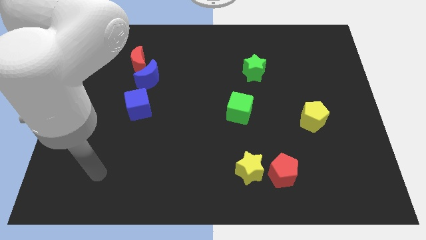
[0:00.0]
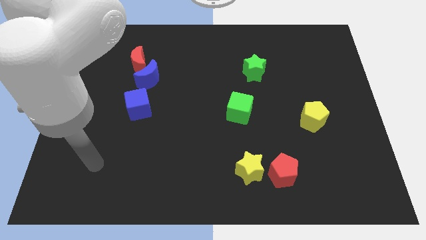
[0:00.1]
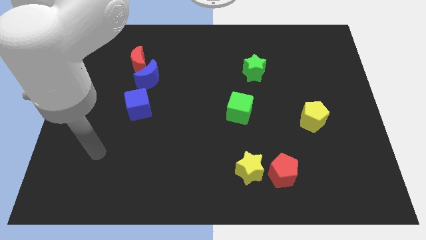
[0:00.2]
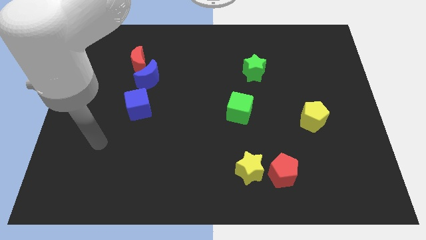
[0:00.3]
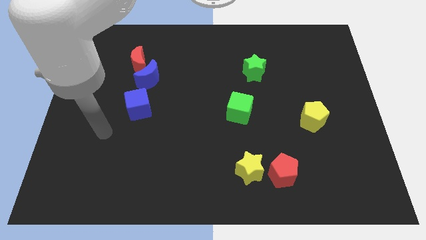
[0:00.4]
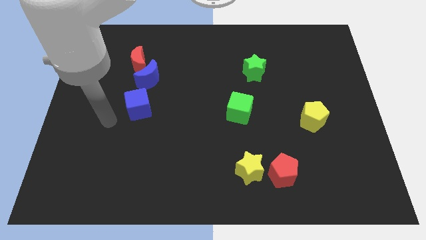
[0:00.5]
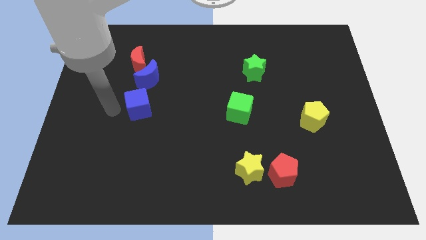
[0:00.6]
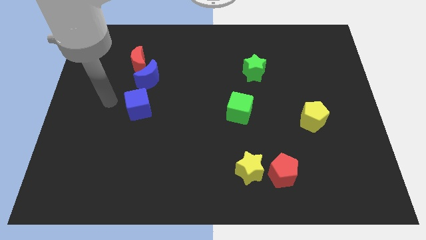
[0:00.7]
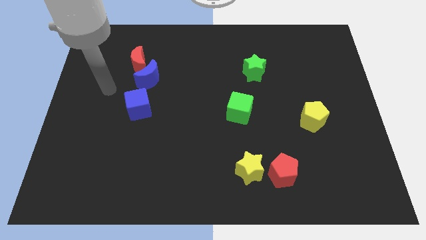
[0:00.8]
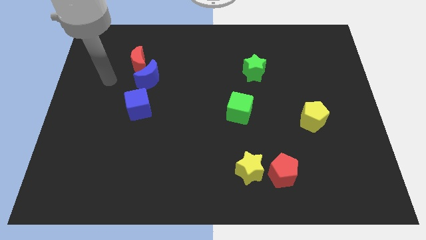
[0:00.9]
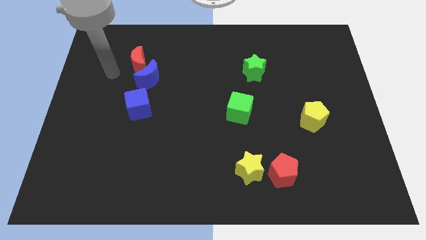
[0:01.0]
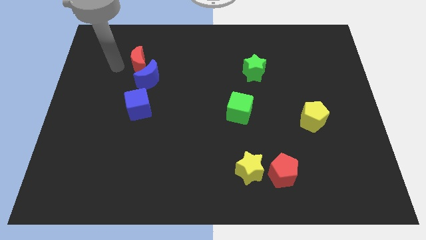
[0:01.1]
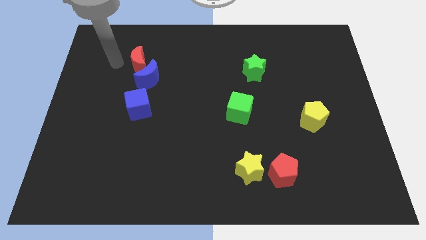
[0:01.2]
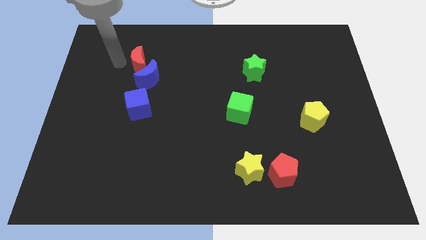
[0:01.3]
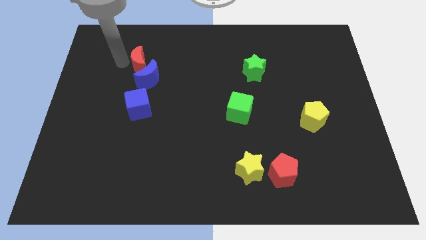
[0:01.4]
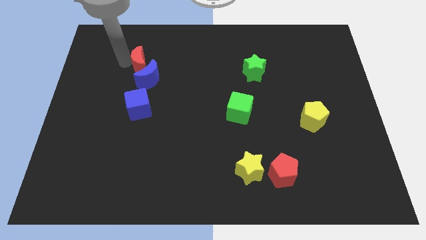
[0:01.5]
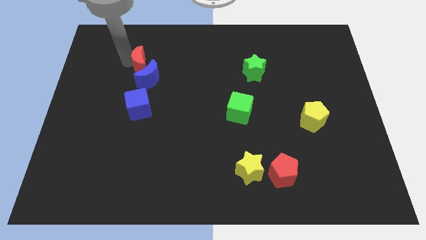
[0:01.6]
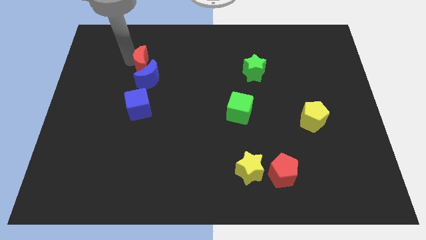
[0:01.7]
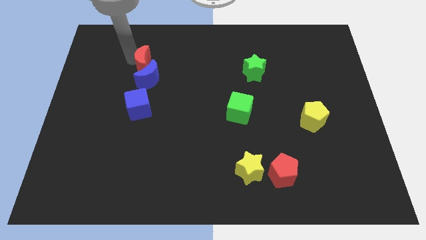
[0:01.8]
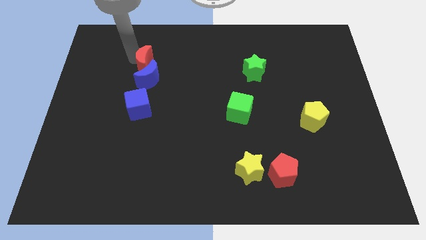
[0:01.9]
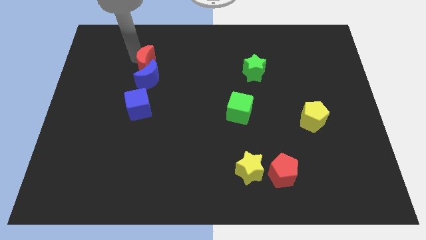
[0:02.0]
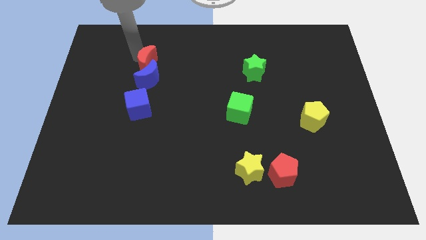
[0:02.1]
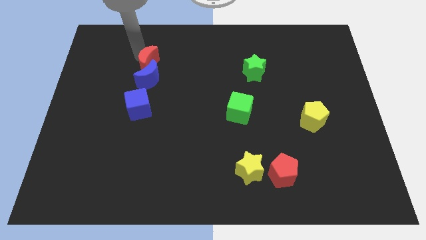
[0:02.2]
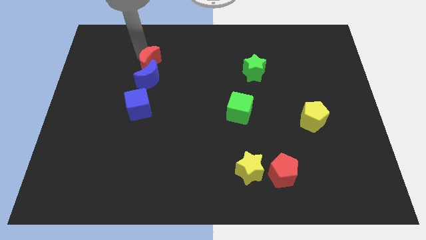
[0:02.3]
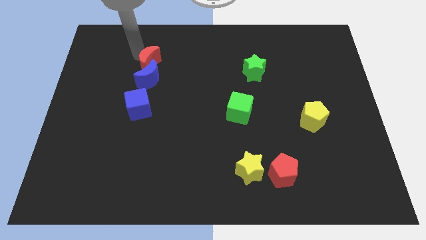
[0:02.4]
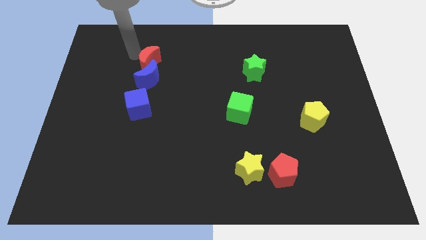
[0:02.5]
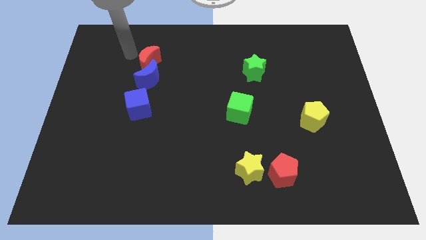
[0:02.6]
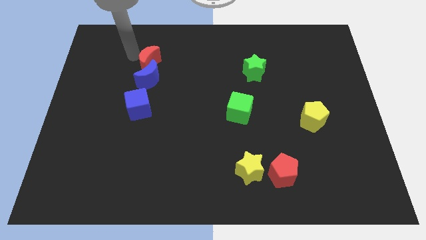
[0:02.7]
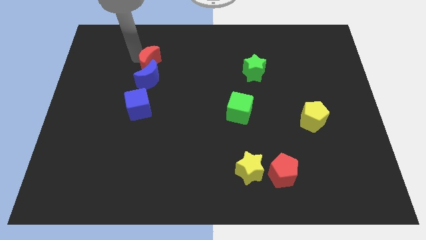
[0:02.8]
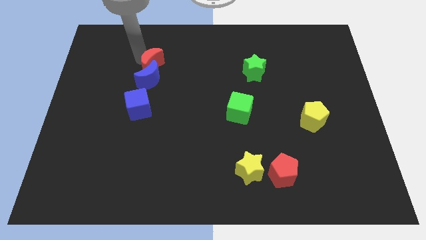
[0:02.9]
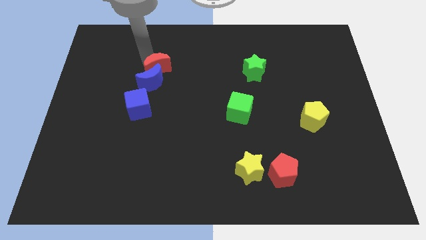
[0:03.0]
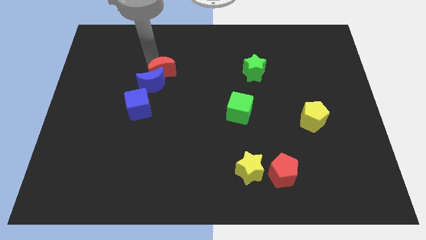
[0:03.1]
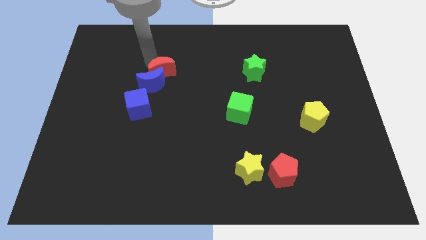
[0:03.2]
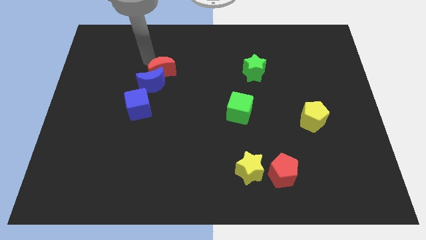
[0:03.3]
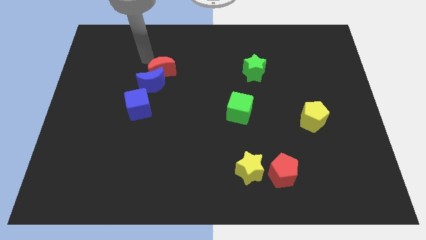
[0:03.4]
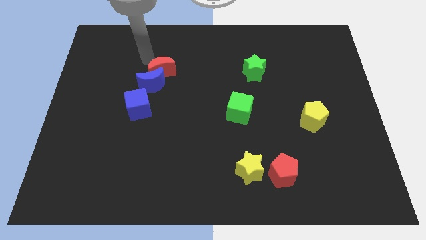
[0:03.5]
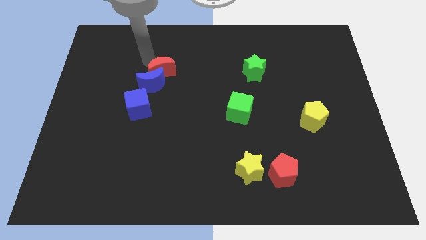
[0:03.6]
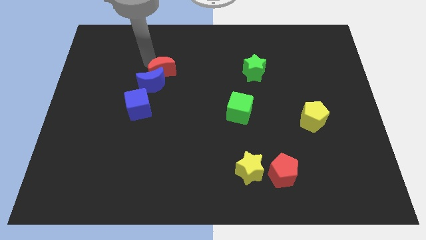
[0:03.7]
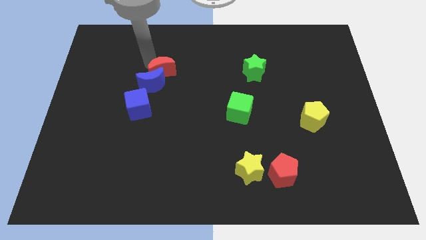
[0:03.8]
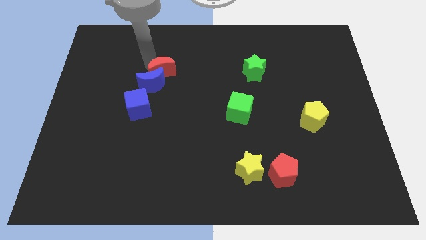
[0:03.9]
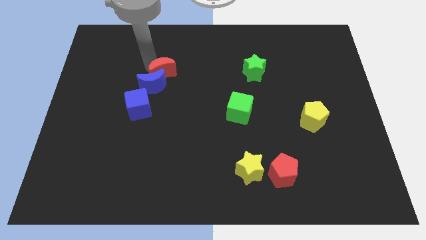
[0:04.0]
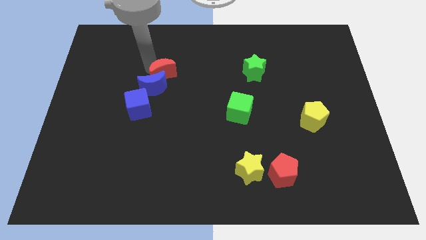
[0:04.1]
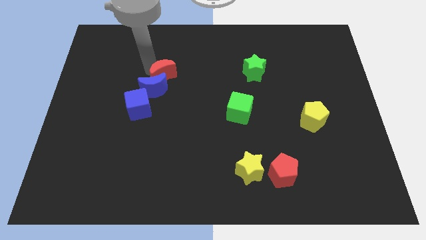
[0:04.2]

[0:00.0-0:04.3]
slide the red moon downwards and then right a little bit

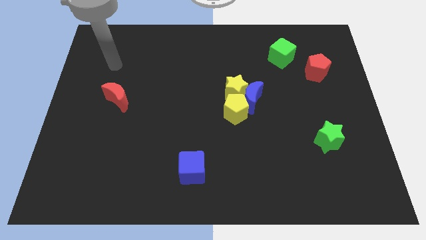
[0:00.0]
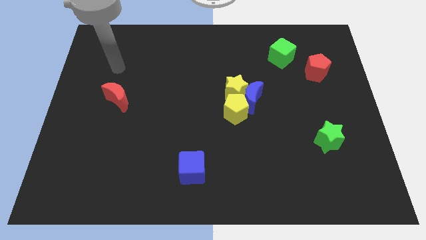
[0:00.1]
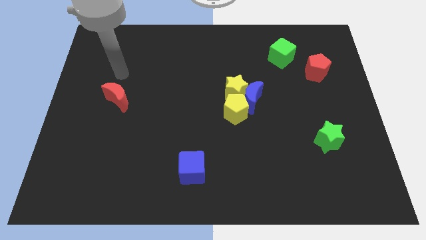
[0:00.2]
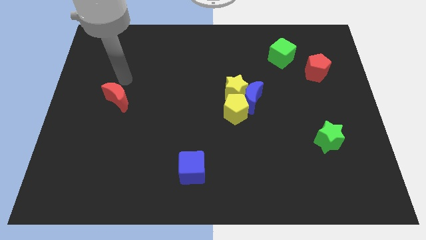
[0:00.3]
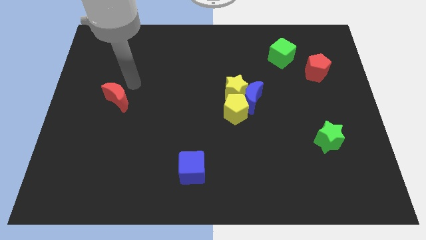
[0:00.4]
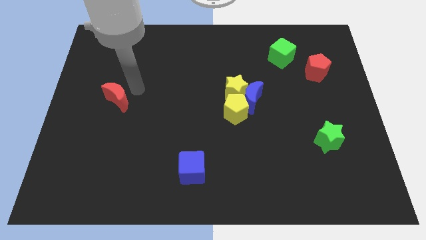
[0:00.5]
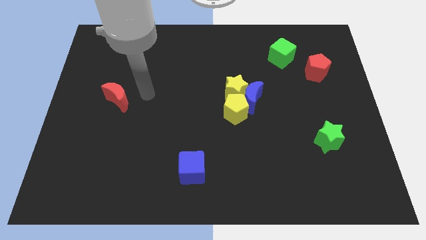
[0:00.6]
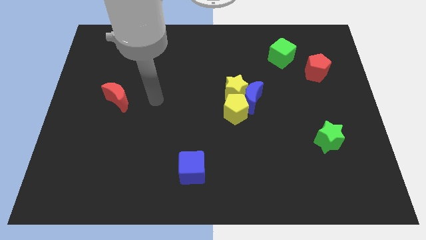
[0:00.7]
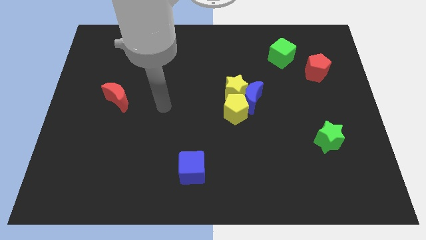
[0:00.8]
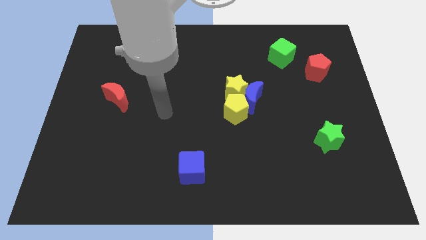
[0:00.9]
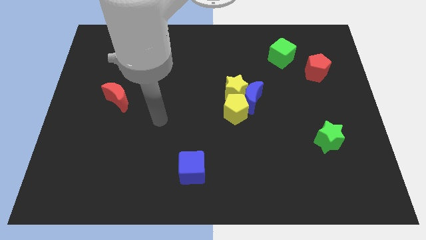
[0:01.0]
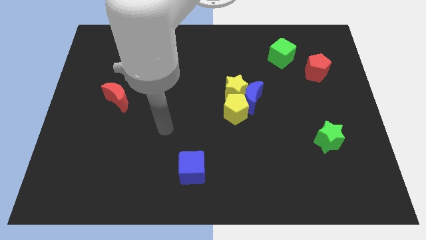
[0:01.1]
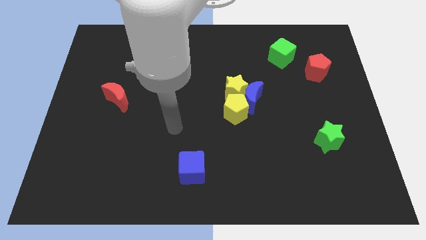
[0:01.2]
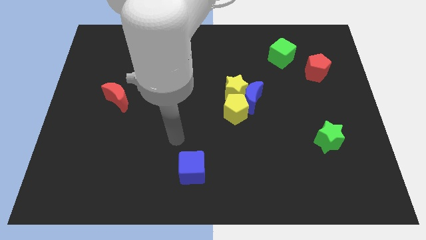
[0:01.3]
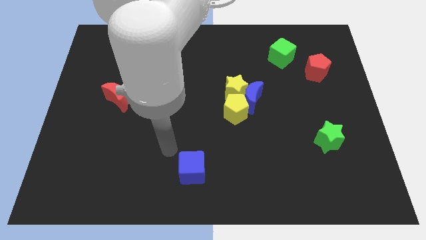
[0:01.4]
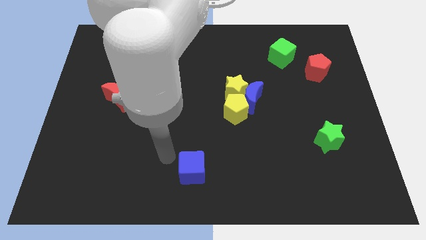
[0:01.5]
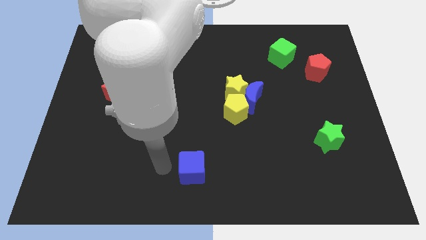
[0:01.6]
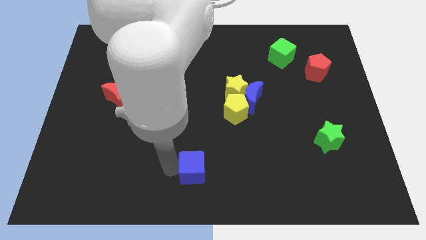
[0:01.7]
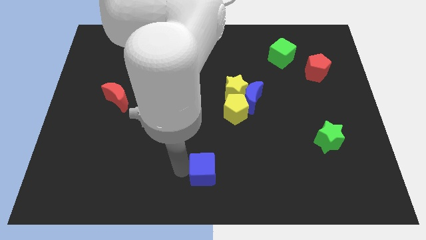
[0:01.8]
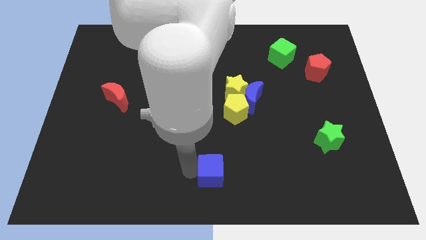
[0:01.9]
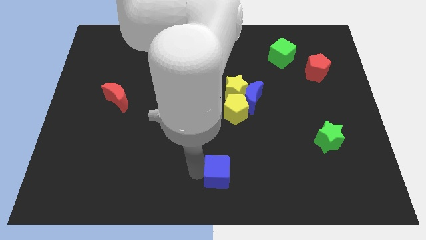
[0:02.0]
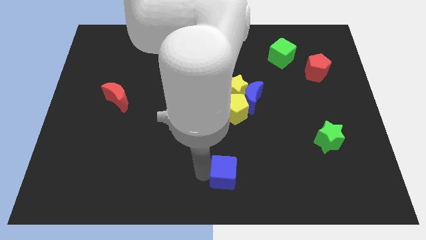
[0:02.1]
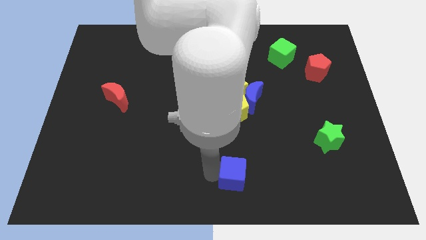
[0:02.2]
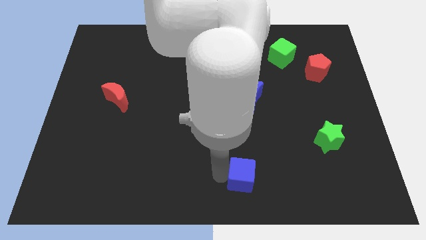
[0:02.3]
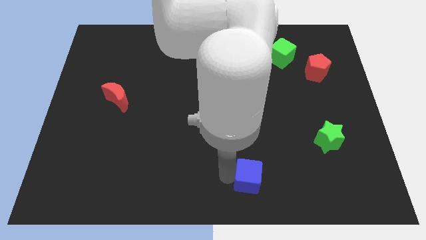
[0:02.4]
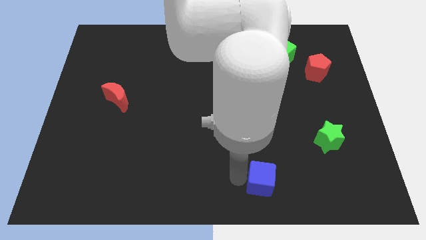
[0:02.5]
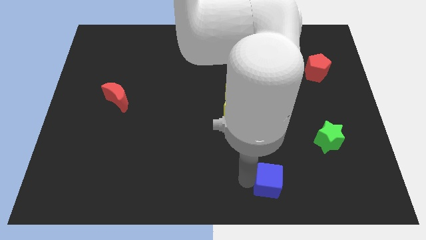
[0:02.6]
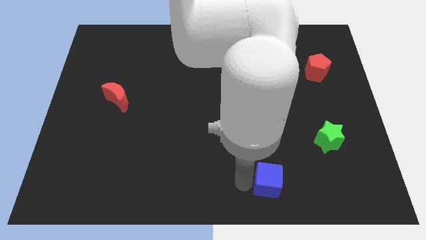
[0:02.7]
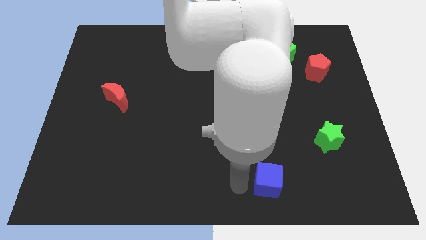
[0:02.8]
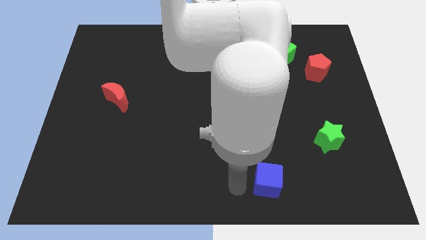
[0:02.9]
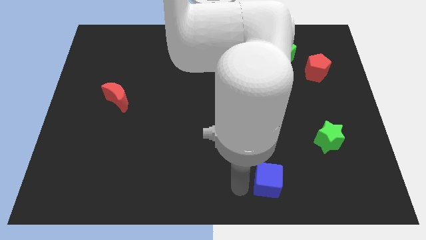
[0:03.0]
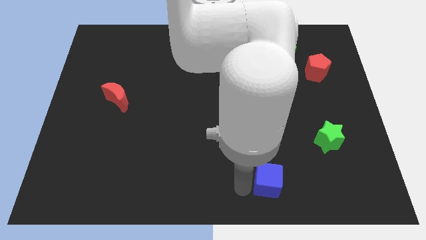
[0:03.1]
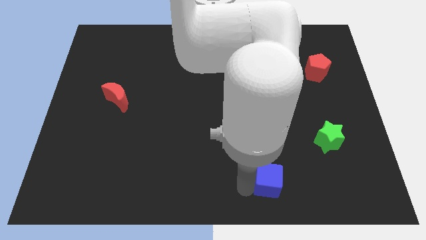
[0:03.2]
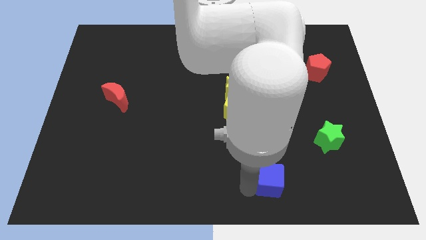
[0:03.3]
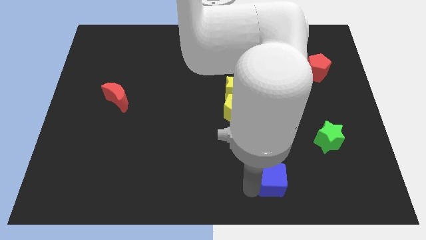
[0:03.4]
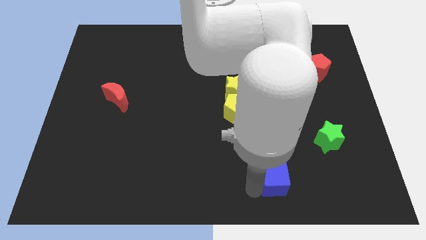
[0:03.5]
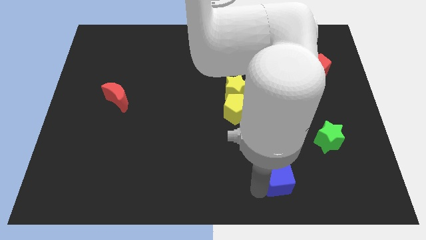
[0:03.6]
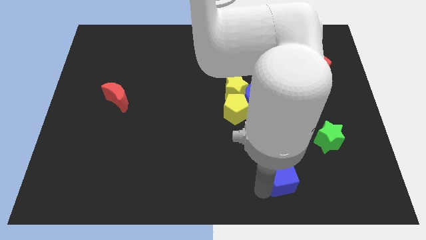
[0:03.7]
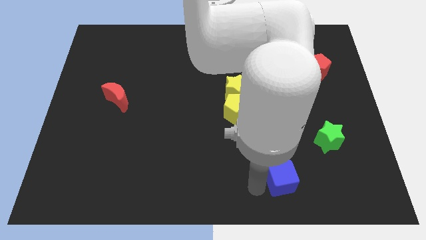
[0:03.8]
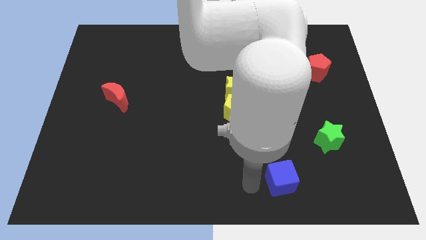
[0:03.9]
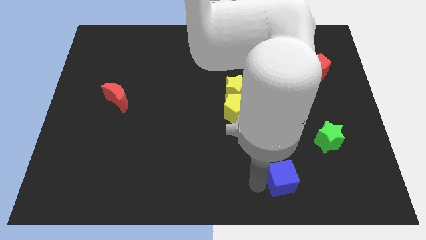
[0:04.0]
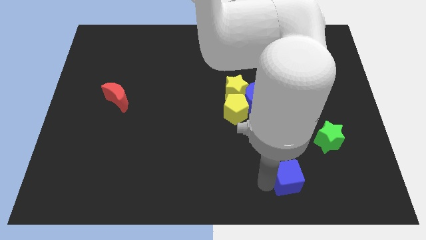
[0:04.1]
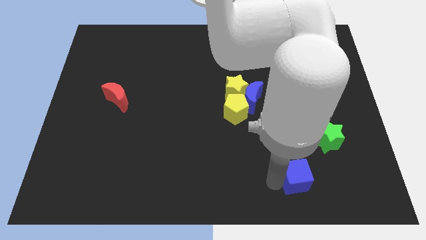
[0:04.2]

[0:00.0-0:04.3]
push the blue cube right
